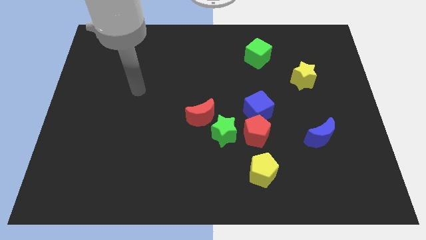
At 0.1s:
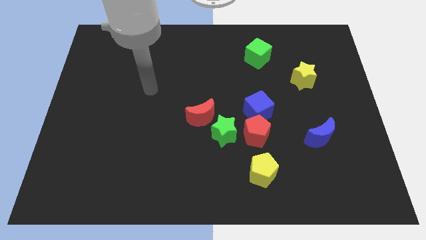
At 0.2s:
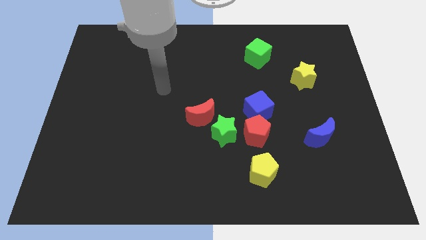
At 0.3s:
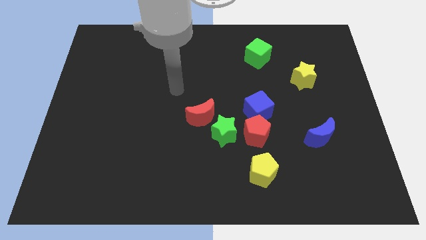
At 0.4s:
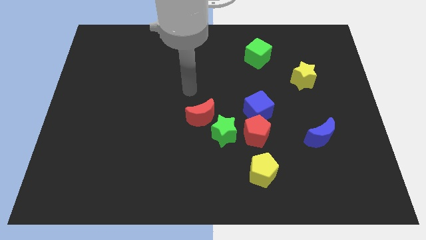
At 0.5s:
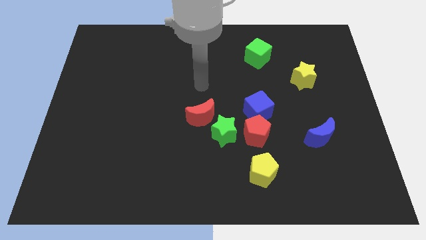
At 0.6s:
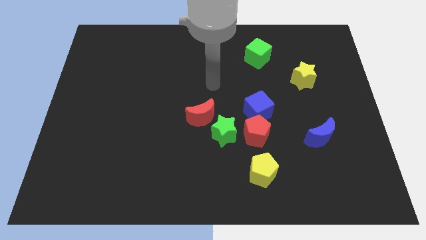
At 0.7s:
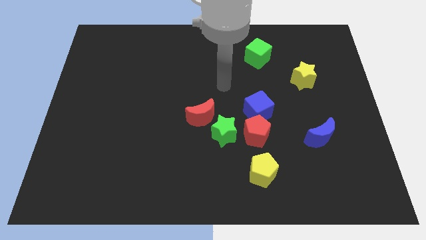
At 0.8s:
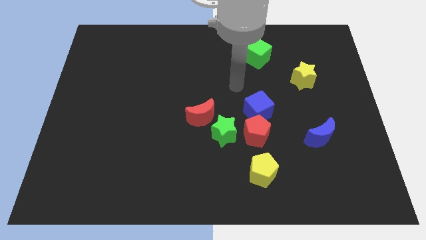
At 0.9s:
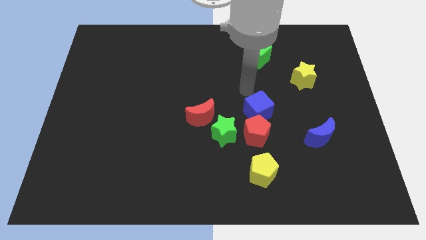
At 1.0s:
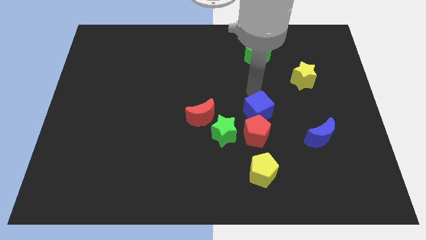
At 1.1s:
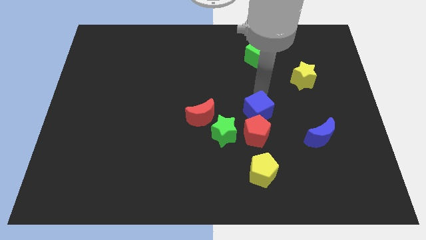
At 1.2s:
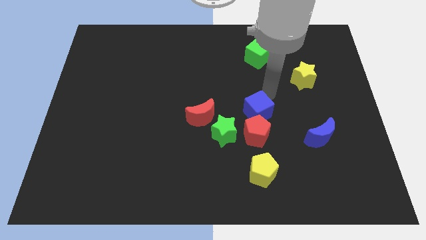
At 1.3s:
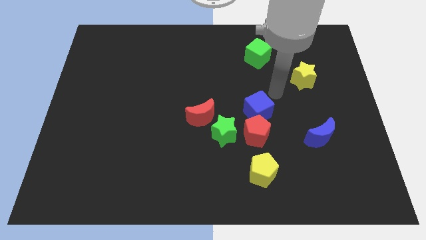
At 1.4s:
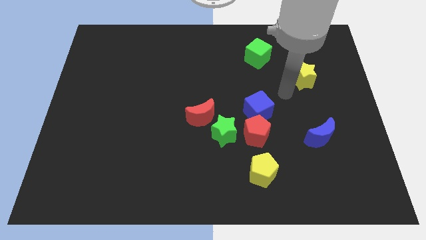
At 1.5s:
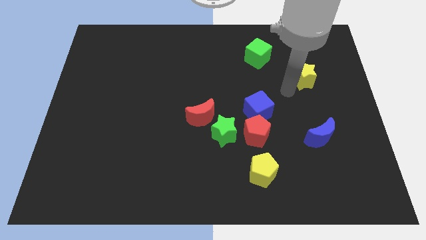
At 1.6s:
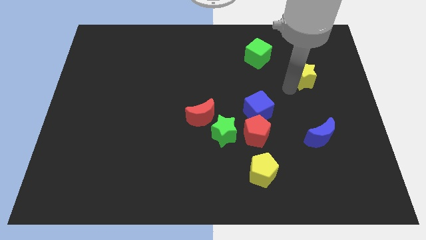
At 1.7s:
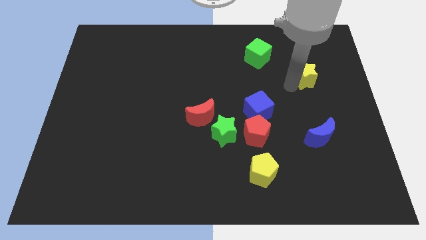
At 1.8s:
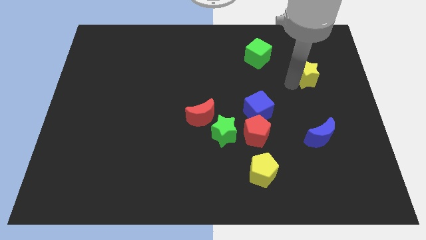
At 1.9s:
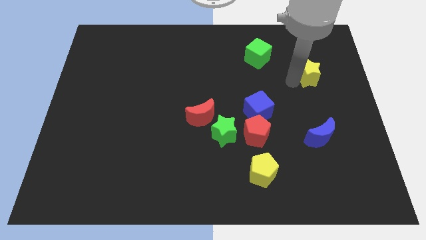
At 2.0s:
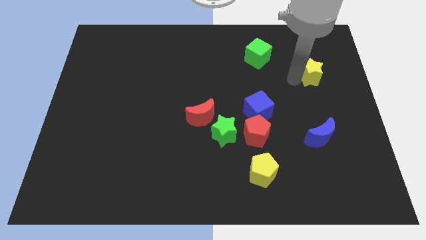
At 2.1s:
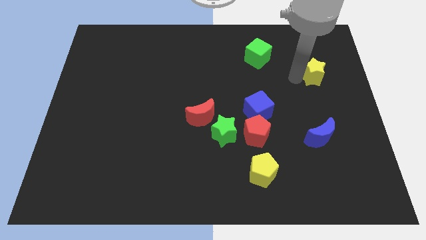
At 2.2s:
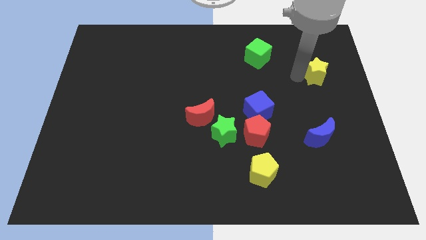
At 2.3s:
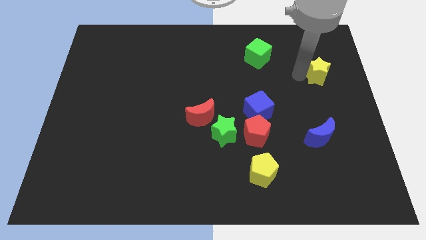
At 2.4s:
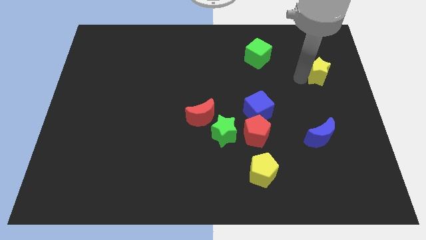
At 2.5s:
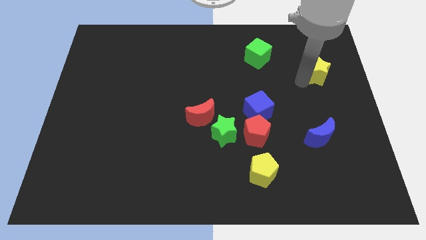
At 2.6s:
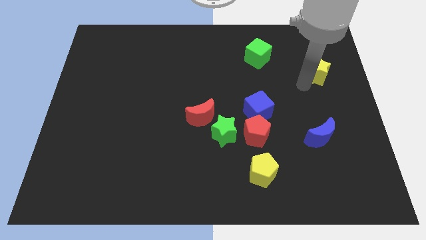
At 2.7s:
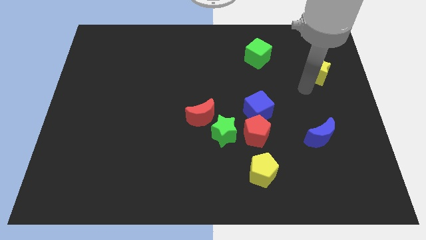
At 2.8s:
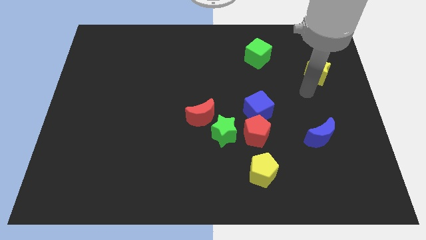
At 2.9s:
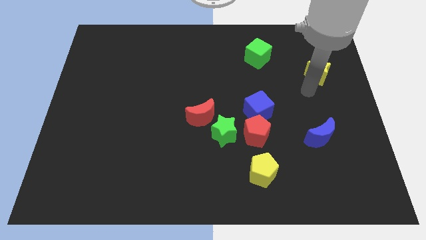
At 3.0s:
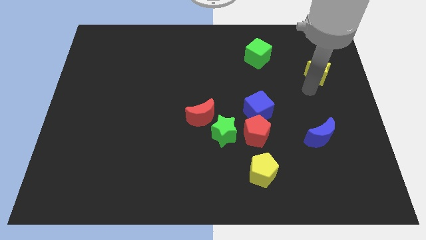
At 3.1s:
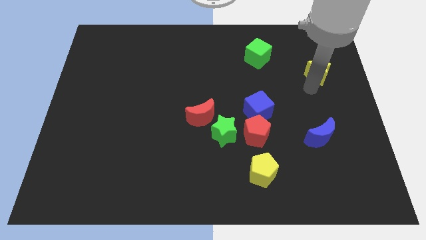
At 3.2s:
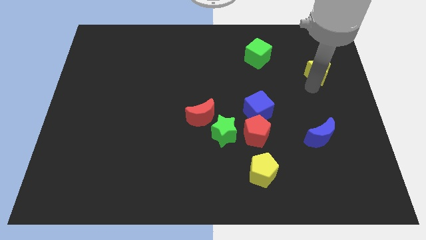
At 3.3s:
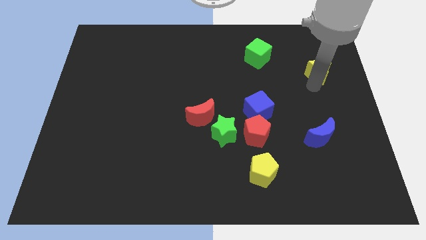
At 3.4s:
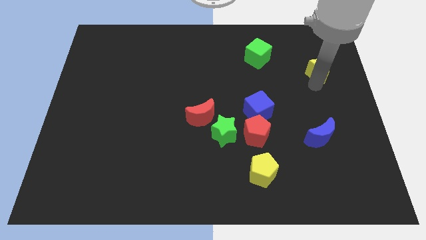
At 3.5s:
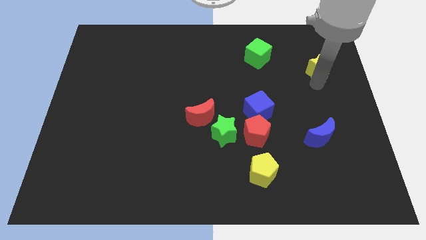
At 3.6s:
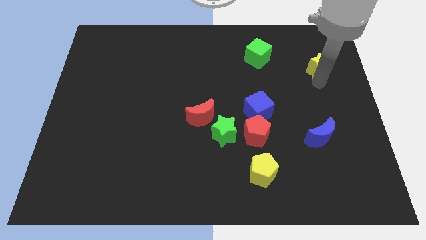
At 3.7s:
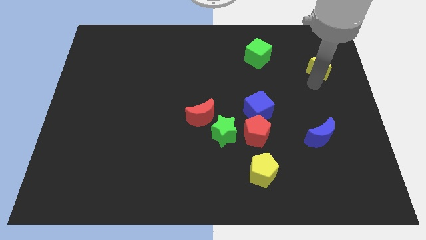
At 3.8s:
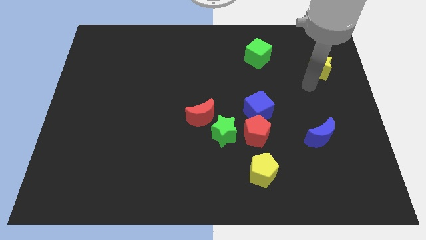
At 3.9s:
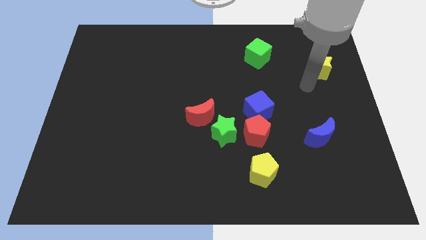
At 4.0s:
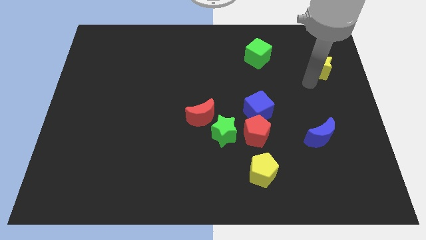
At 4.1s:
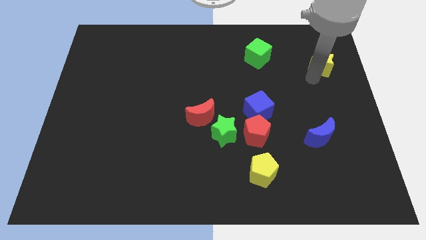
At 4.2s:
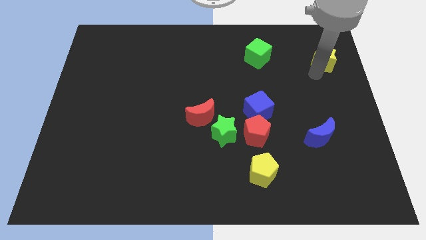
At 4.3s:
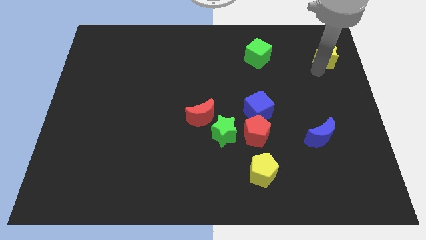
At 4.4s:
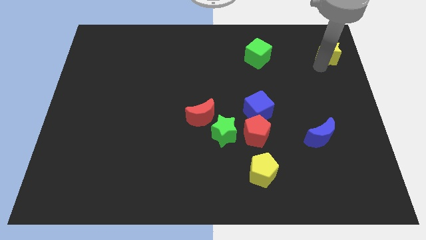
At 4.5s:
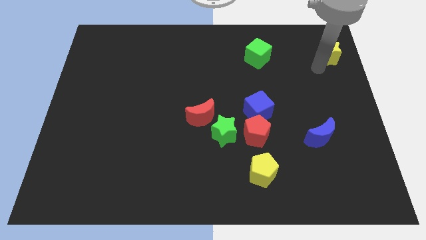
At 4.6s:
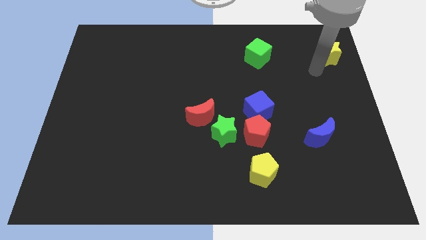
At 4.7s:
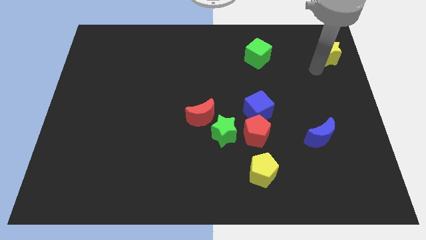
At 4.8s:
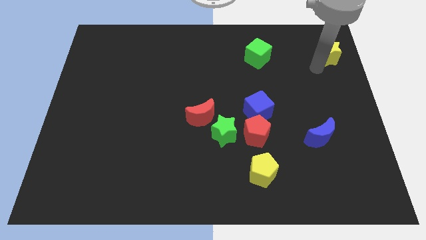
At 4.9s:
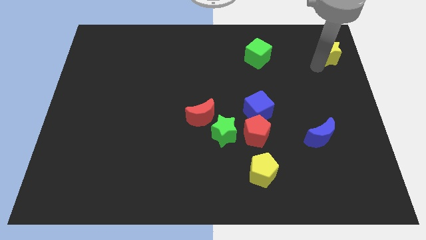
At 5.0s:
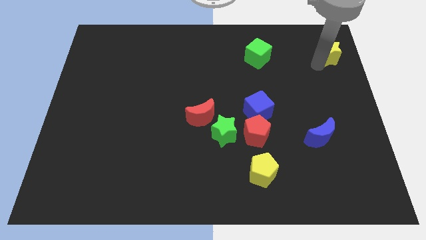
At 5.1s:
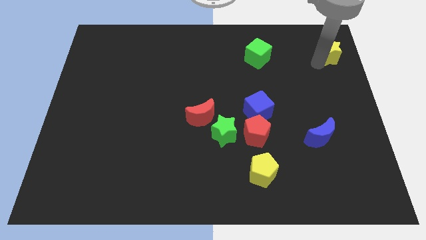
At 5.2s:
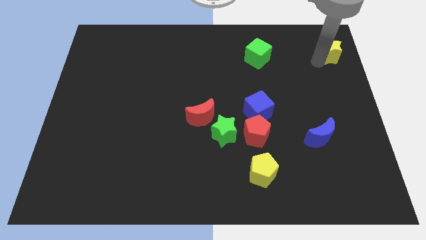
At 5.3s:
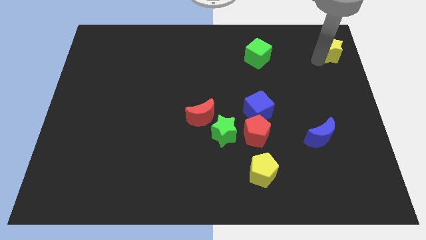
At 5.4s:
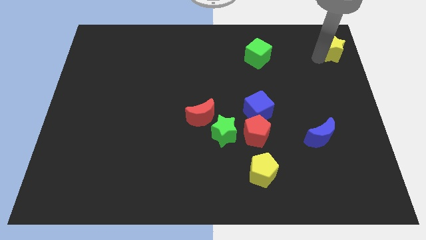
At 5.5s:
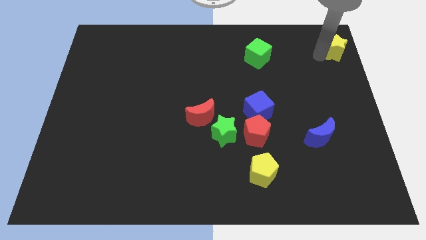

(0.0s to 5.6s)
slide the yellow star to the top right
